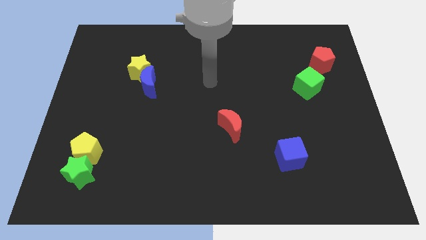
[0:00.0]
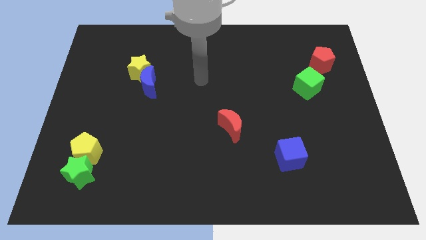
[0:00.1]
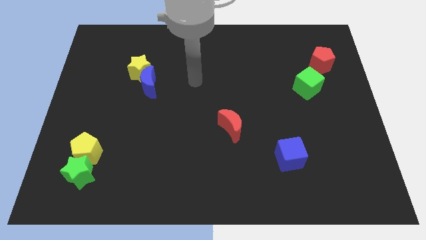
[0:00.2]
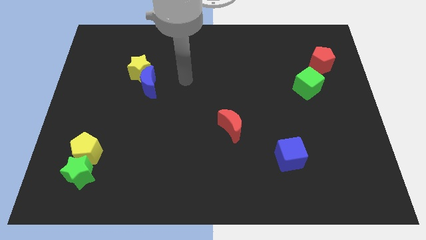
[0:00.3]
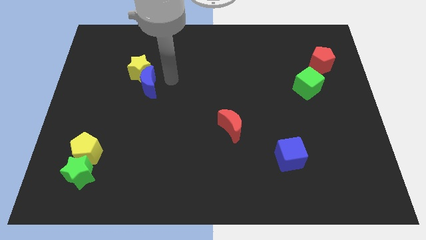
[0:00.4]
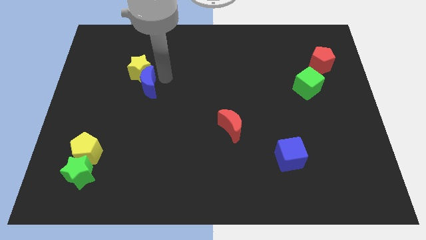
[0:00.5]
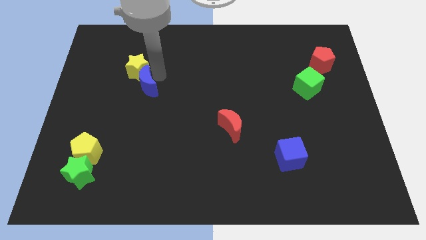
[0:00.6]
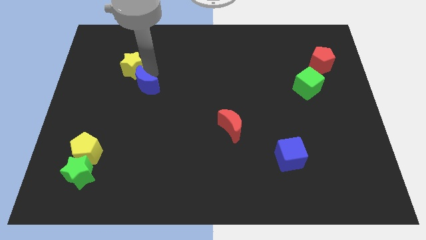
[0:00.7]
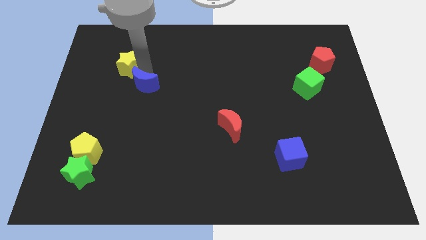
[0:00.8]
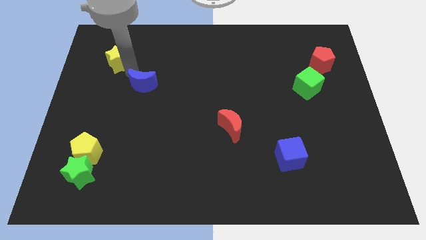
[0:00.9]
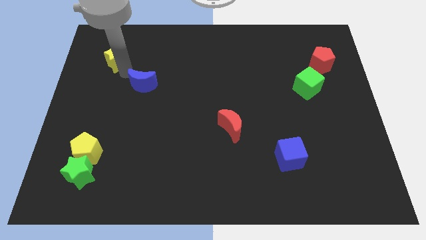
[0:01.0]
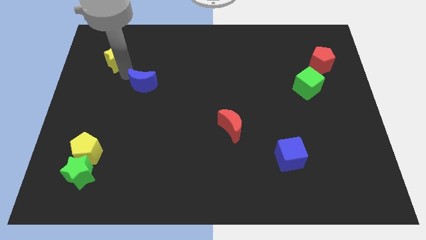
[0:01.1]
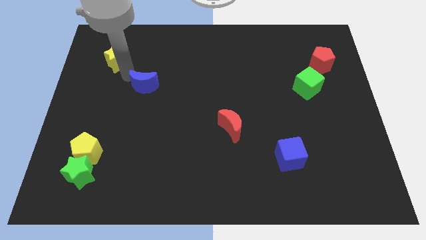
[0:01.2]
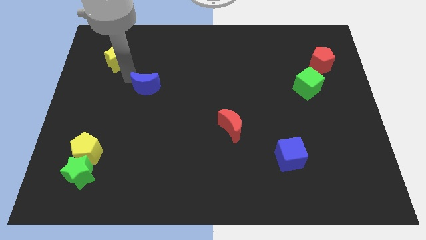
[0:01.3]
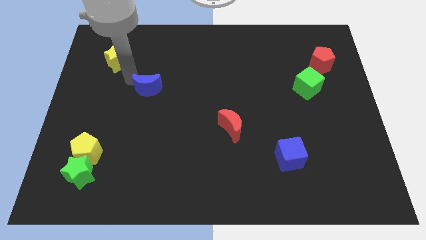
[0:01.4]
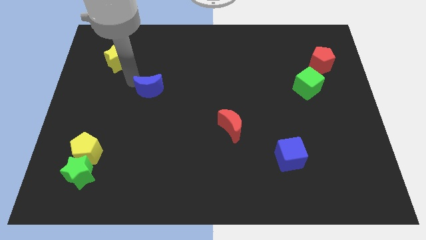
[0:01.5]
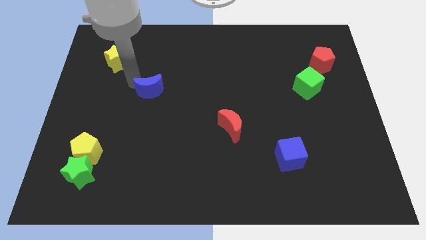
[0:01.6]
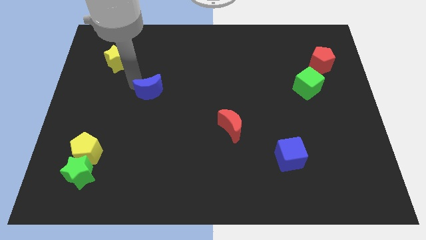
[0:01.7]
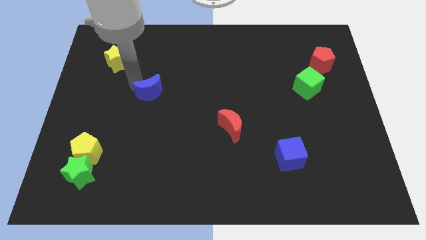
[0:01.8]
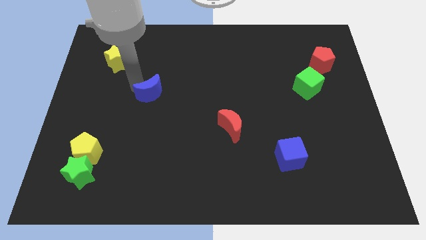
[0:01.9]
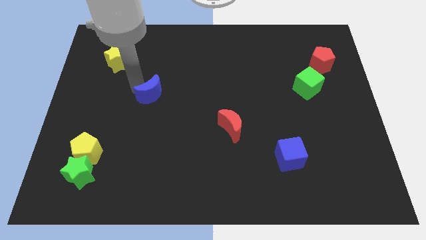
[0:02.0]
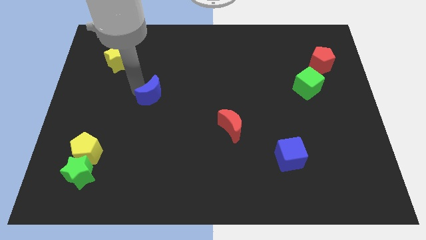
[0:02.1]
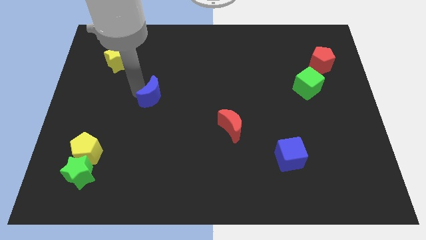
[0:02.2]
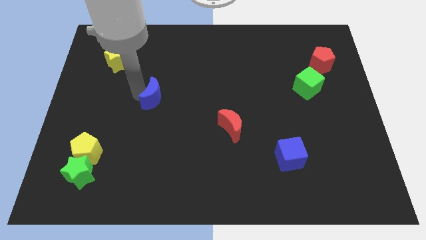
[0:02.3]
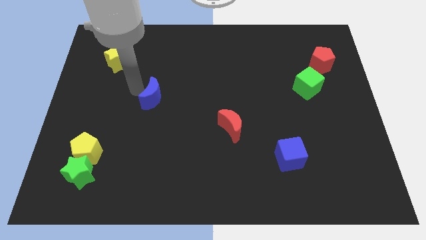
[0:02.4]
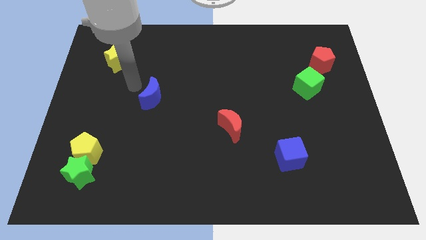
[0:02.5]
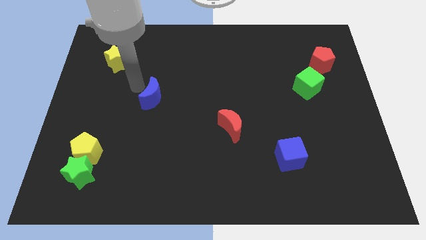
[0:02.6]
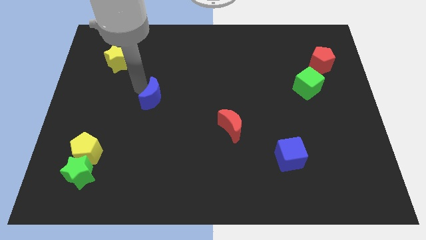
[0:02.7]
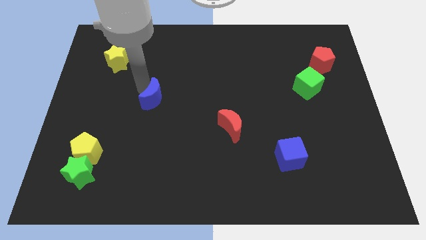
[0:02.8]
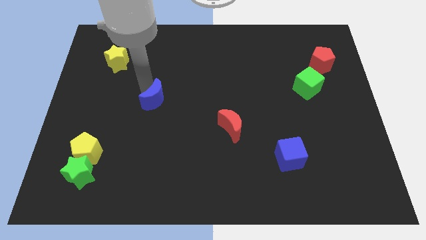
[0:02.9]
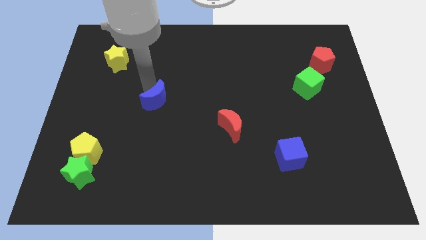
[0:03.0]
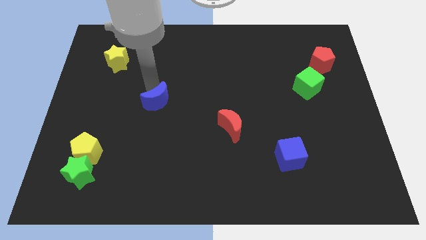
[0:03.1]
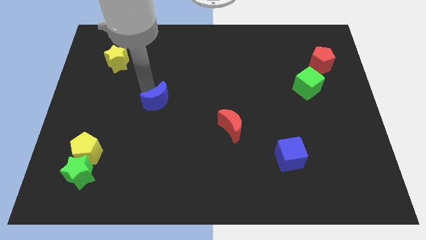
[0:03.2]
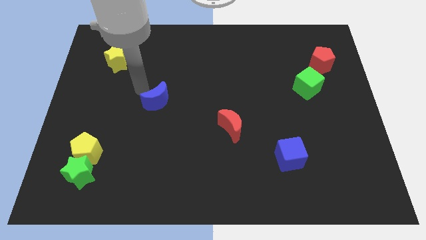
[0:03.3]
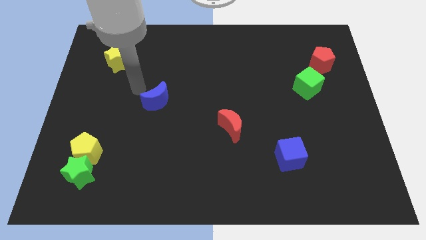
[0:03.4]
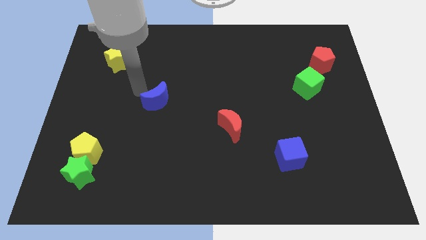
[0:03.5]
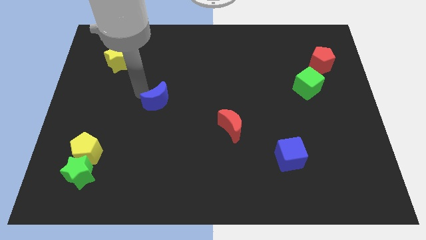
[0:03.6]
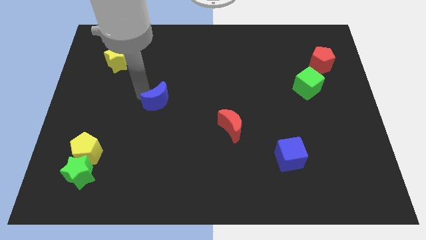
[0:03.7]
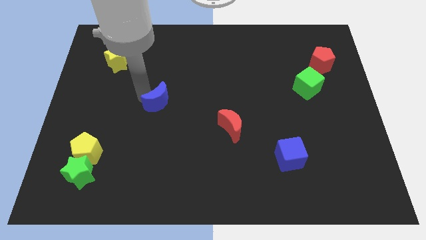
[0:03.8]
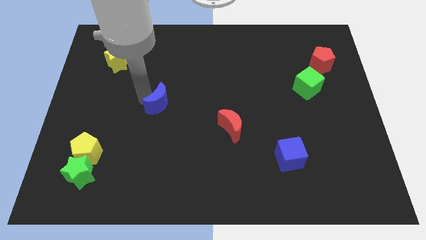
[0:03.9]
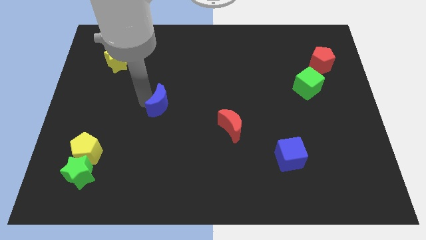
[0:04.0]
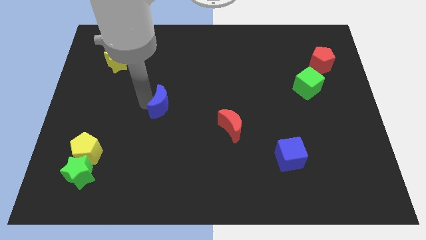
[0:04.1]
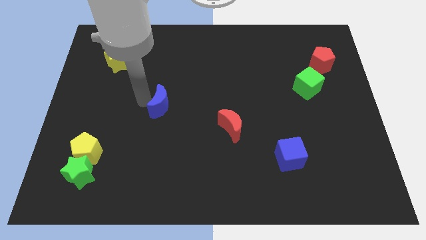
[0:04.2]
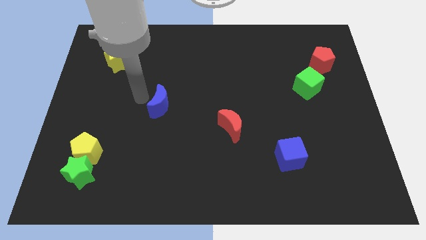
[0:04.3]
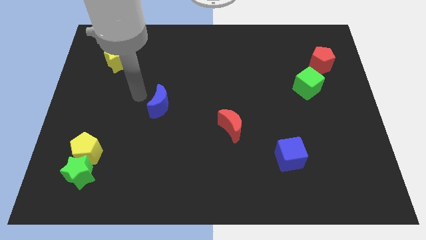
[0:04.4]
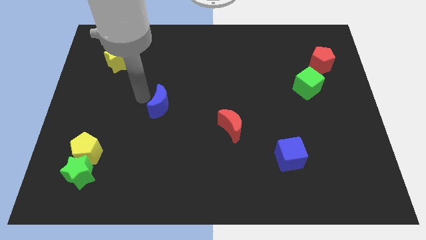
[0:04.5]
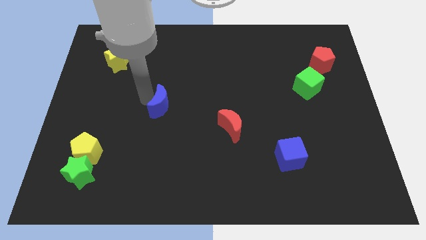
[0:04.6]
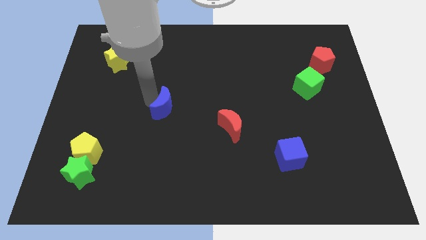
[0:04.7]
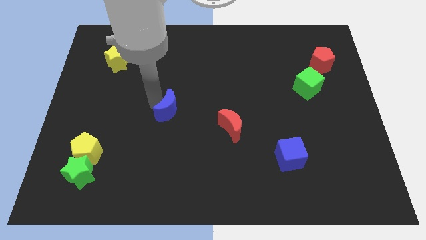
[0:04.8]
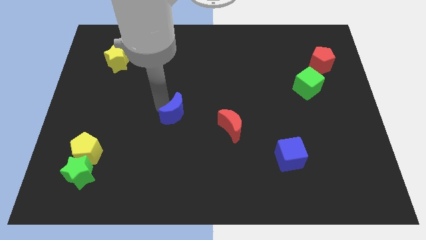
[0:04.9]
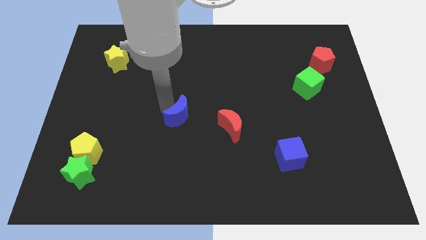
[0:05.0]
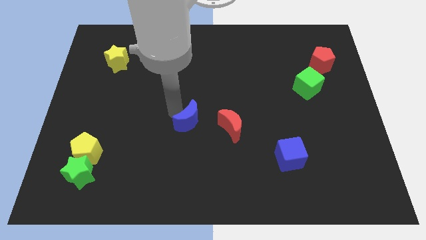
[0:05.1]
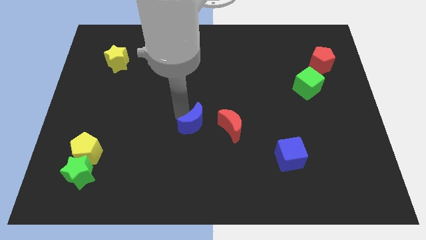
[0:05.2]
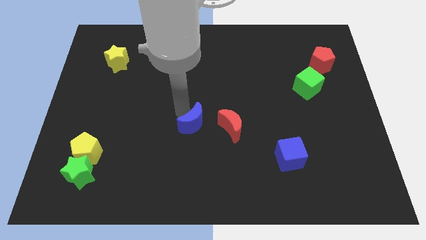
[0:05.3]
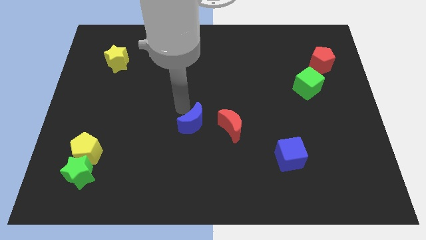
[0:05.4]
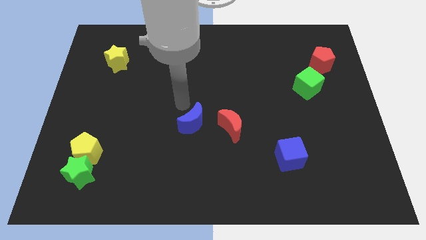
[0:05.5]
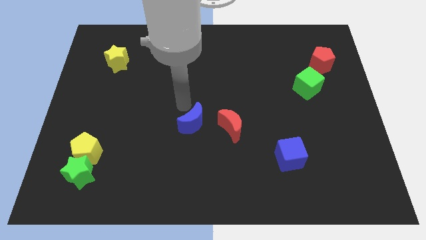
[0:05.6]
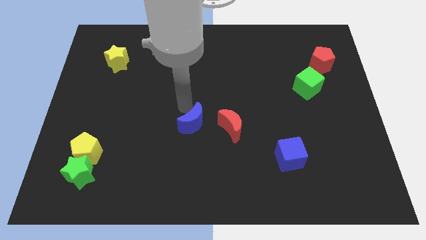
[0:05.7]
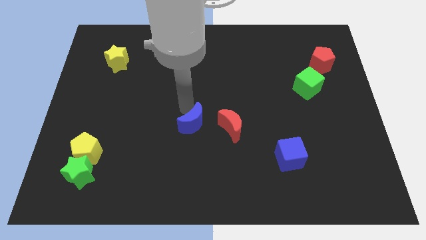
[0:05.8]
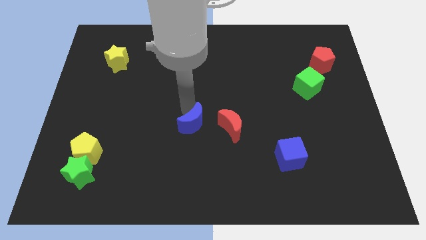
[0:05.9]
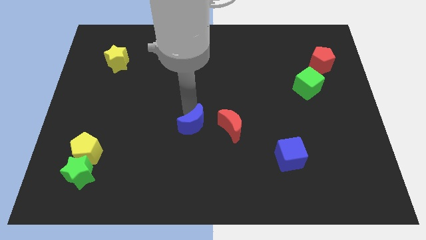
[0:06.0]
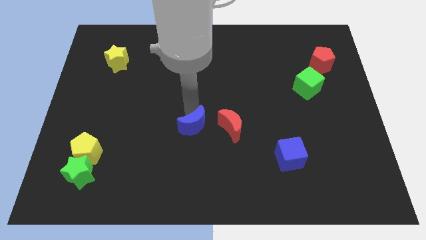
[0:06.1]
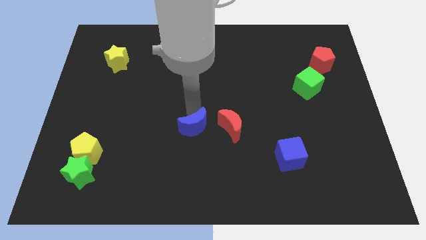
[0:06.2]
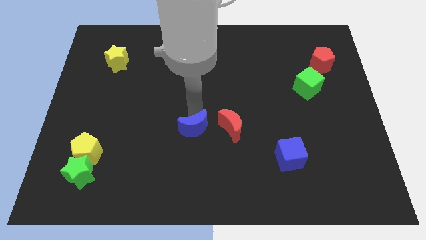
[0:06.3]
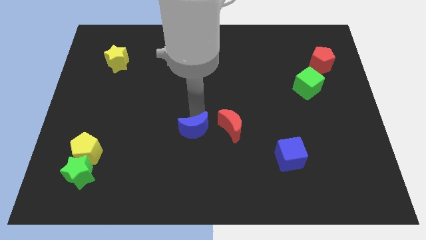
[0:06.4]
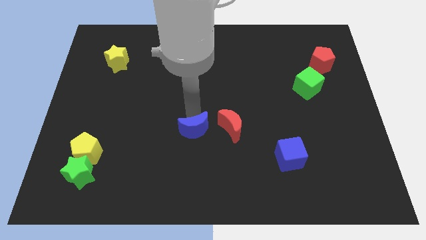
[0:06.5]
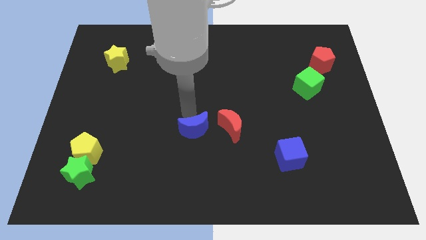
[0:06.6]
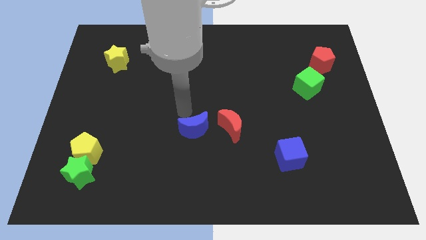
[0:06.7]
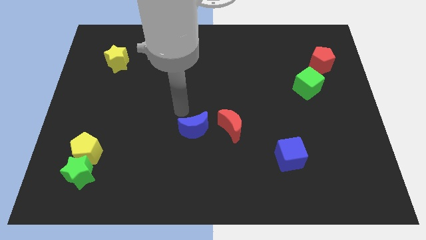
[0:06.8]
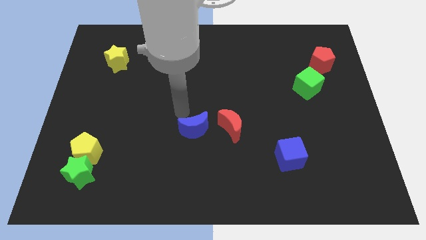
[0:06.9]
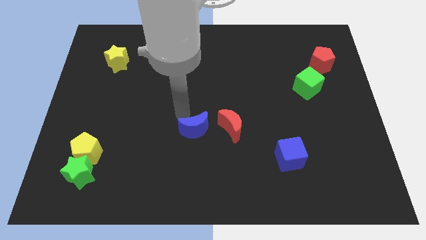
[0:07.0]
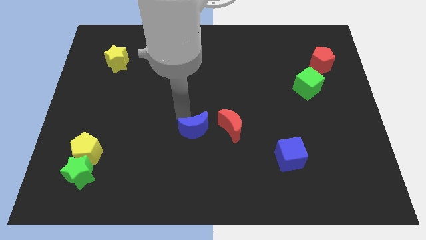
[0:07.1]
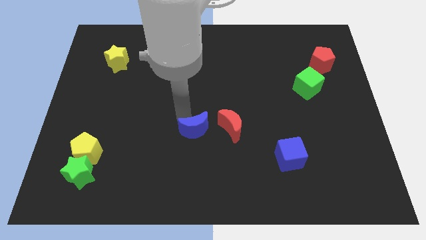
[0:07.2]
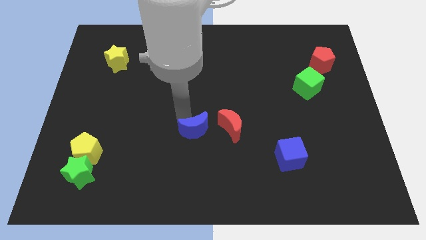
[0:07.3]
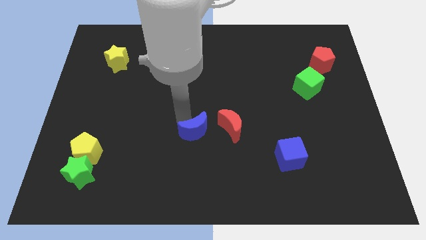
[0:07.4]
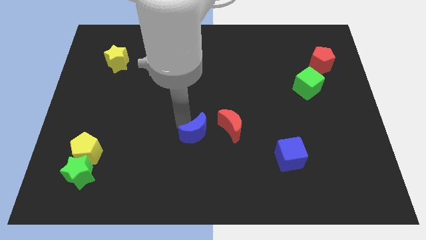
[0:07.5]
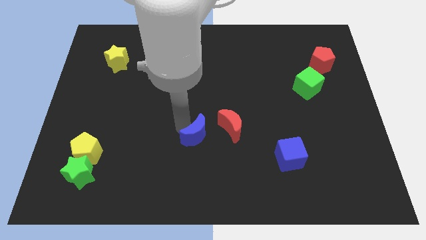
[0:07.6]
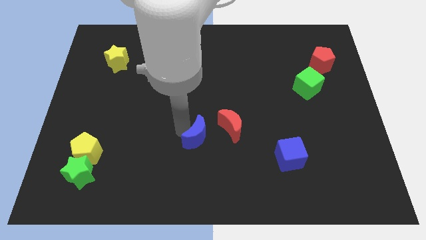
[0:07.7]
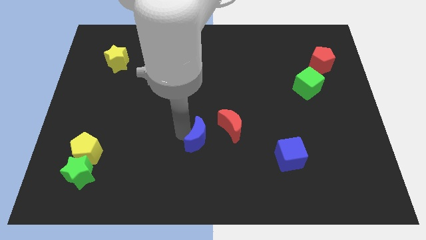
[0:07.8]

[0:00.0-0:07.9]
push the blue moon downwards and then right

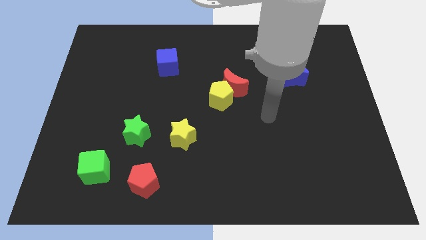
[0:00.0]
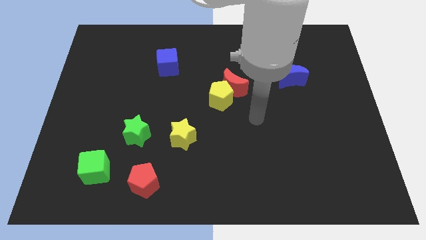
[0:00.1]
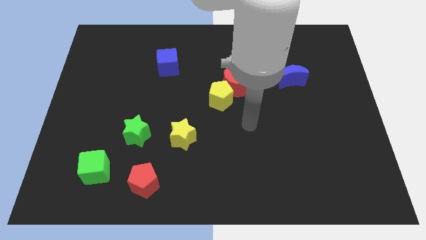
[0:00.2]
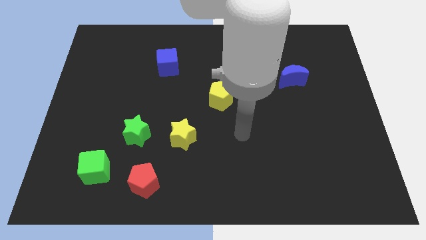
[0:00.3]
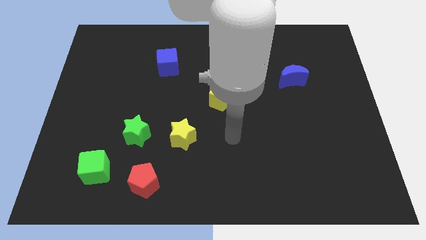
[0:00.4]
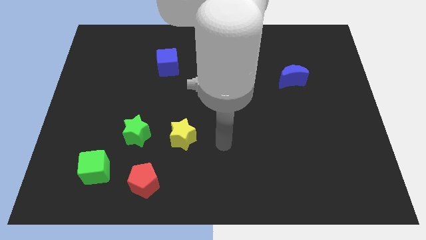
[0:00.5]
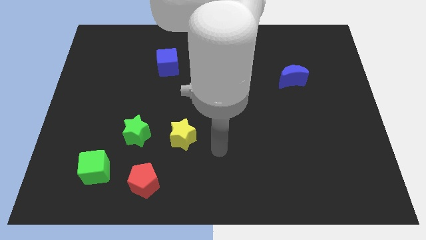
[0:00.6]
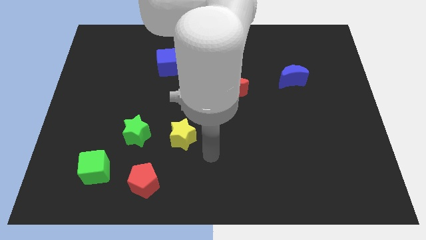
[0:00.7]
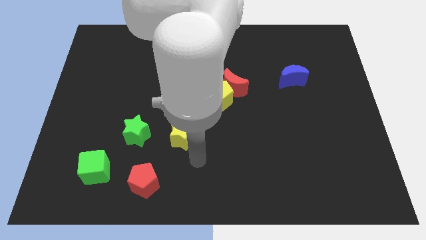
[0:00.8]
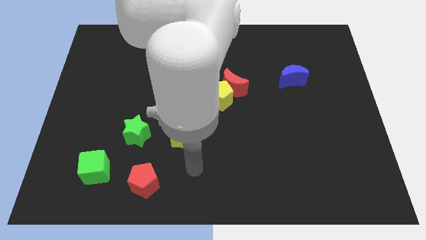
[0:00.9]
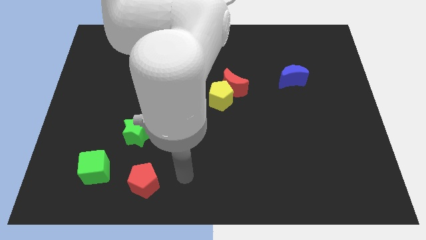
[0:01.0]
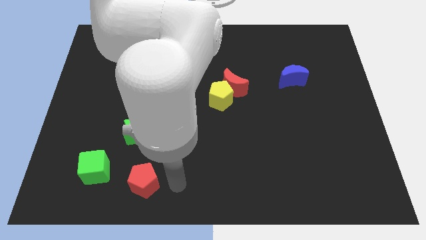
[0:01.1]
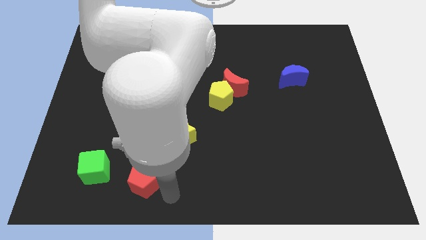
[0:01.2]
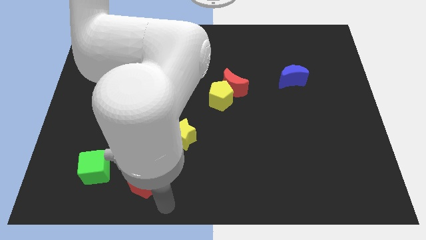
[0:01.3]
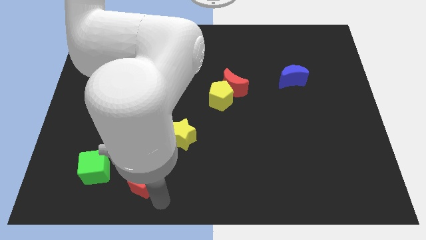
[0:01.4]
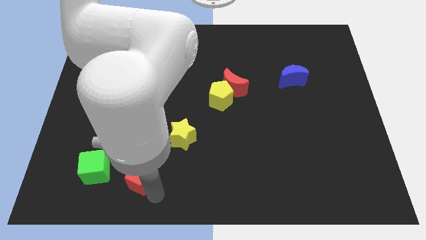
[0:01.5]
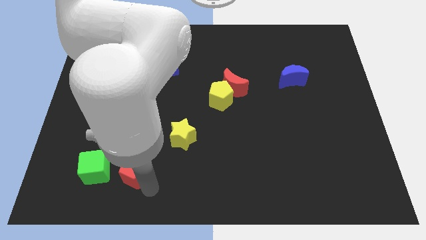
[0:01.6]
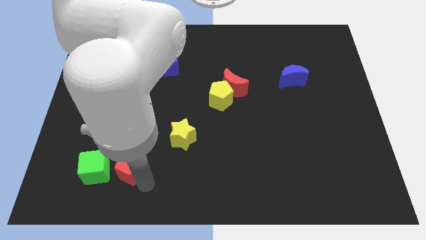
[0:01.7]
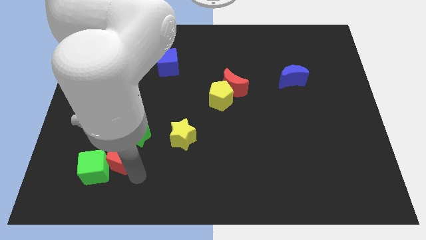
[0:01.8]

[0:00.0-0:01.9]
slightly push the red pentagon up and to the left
